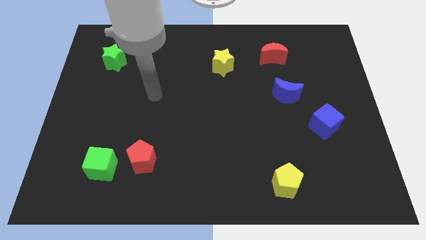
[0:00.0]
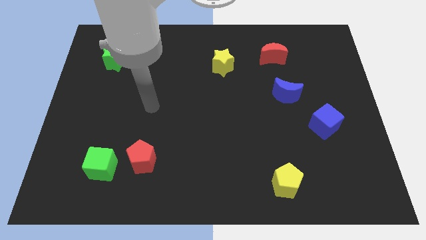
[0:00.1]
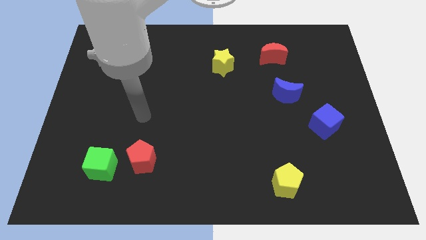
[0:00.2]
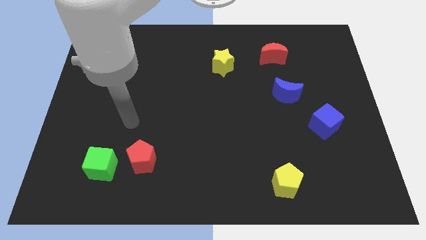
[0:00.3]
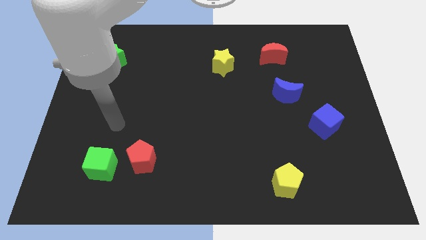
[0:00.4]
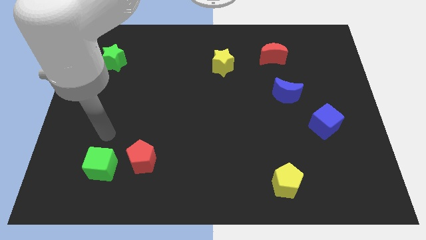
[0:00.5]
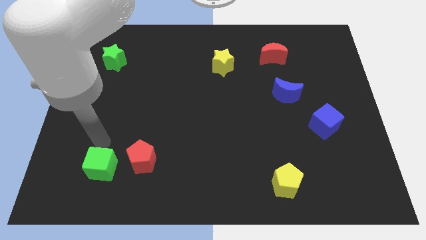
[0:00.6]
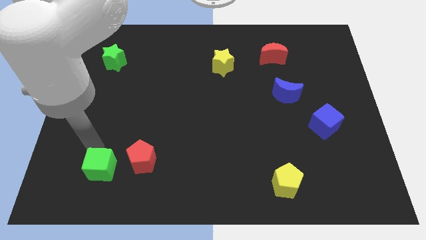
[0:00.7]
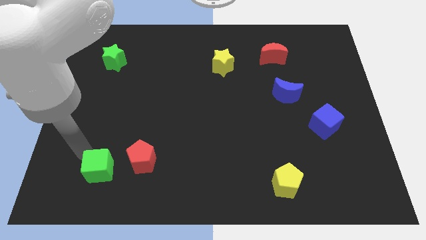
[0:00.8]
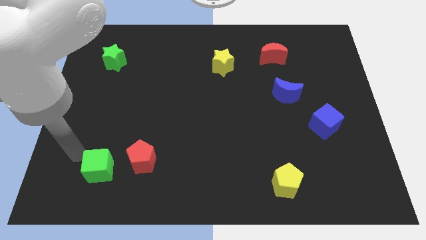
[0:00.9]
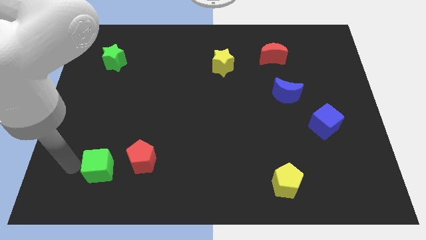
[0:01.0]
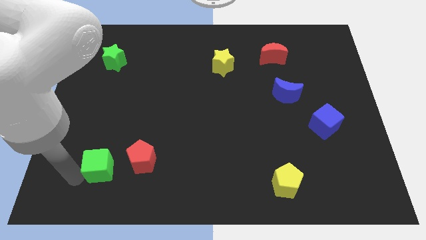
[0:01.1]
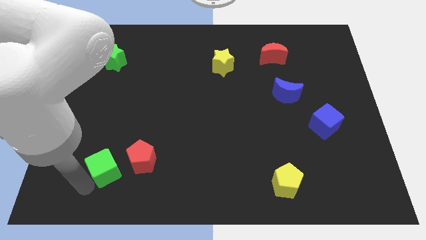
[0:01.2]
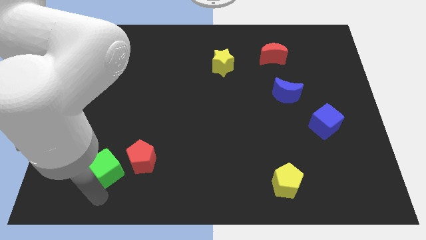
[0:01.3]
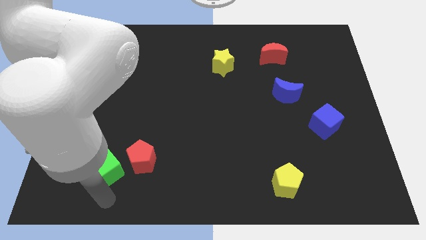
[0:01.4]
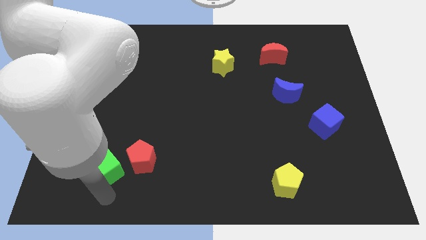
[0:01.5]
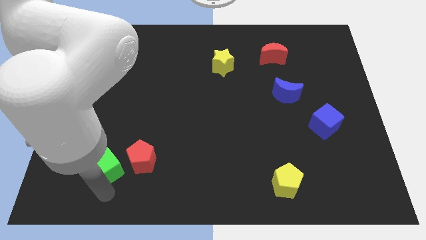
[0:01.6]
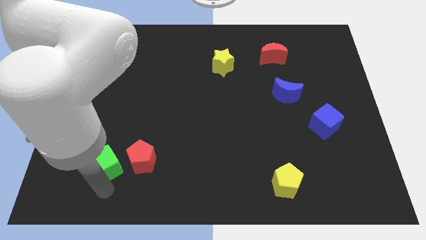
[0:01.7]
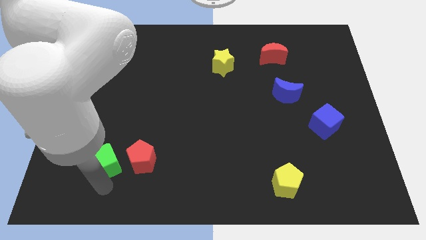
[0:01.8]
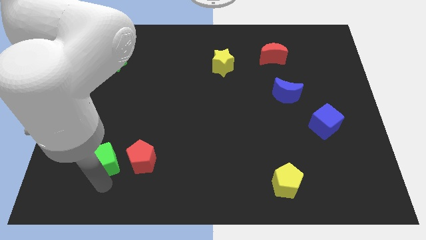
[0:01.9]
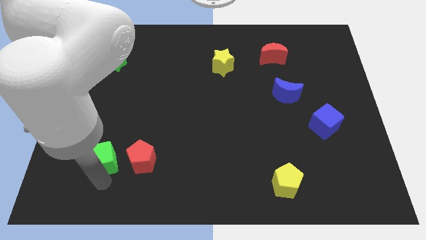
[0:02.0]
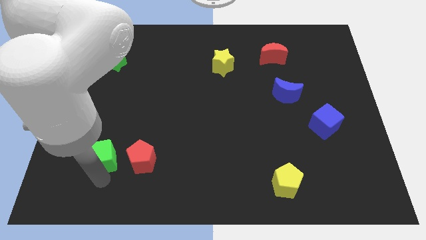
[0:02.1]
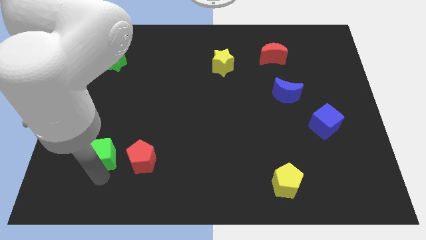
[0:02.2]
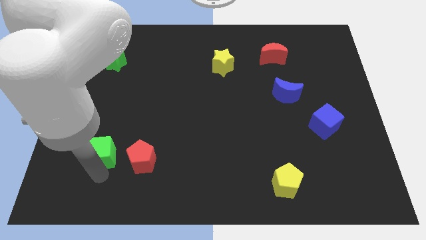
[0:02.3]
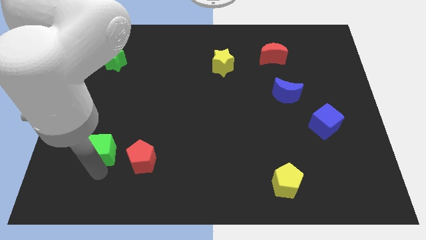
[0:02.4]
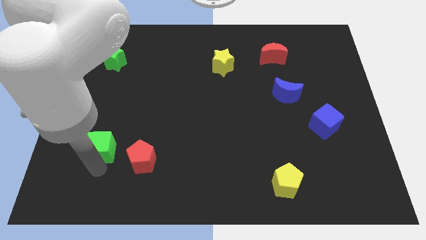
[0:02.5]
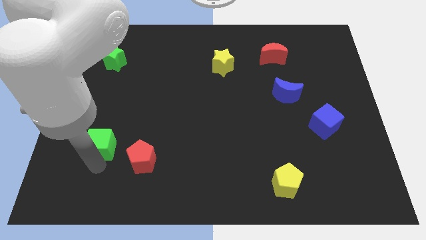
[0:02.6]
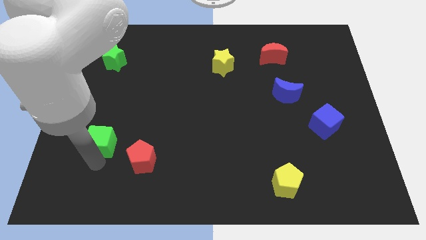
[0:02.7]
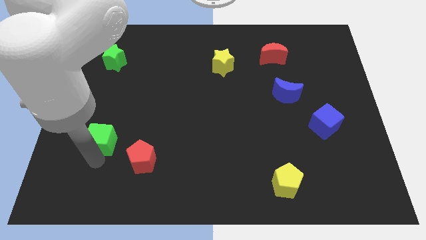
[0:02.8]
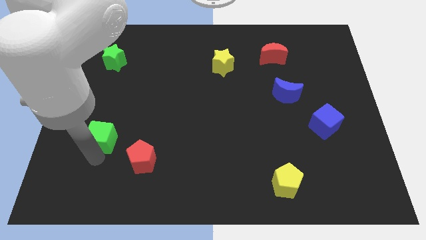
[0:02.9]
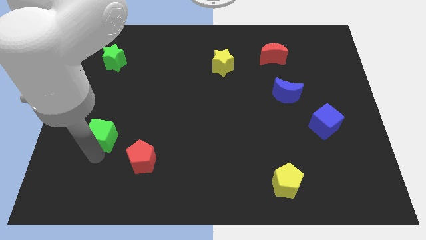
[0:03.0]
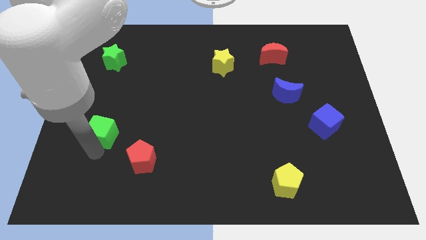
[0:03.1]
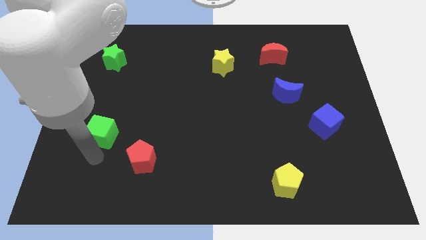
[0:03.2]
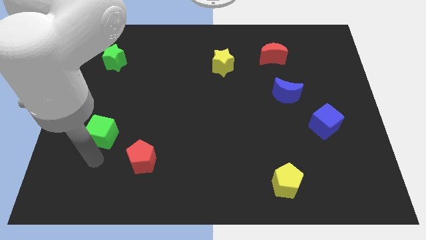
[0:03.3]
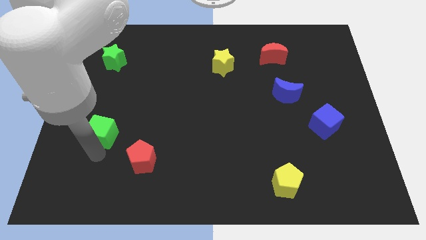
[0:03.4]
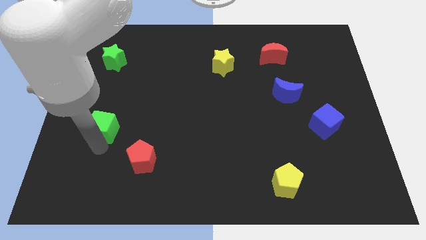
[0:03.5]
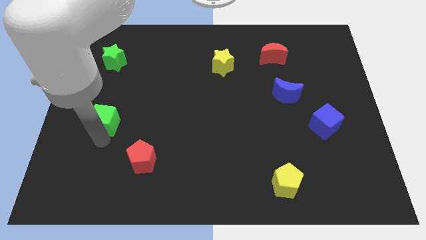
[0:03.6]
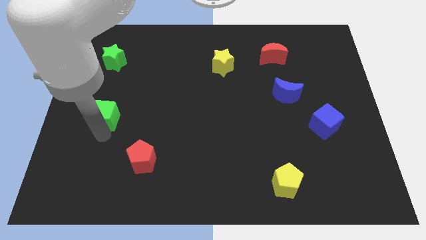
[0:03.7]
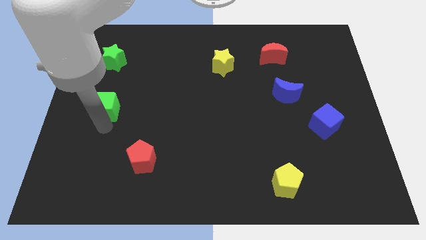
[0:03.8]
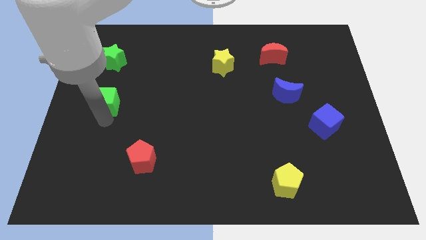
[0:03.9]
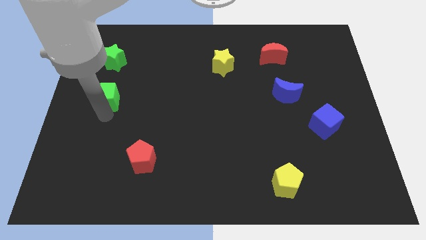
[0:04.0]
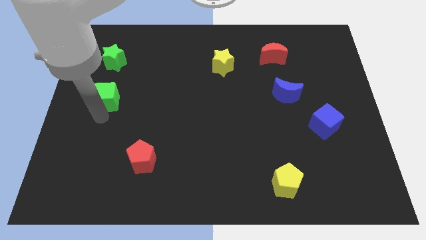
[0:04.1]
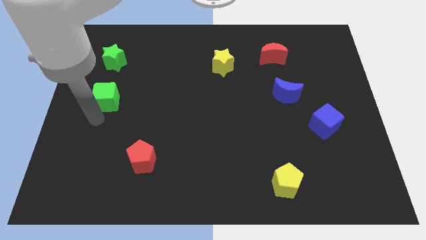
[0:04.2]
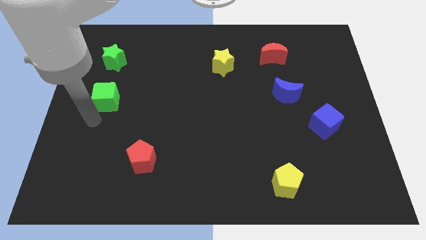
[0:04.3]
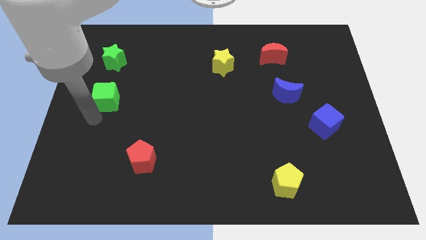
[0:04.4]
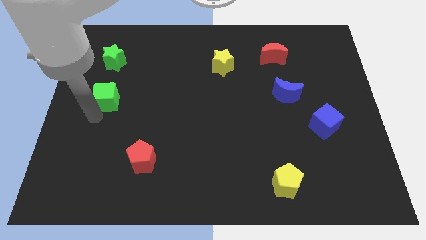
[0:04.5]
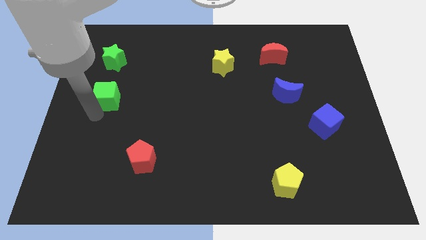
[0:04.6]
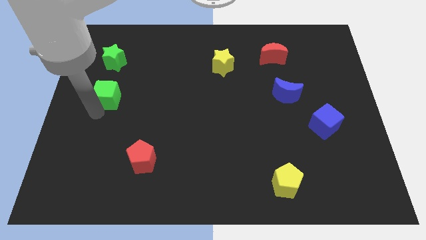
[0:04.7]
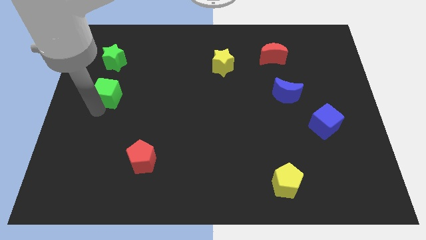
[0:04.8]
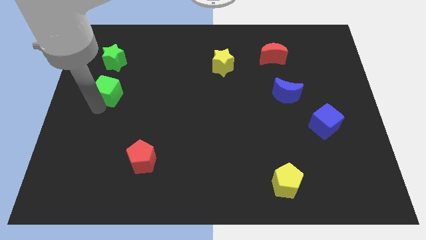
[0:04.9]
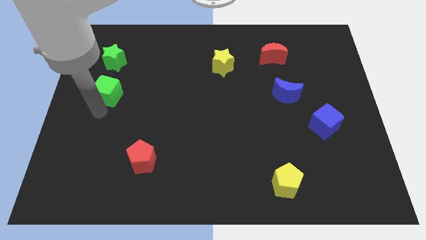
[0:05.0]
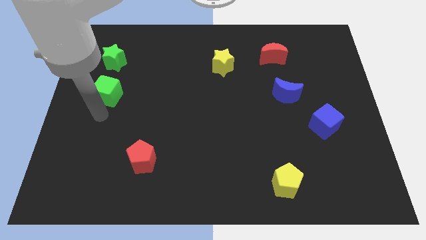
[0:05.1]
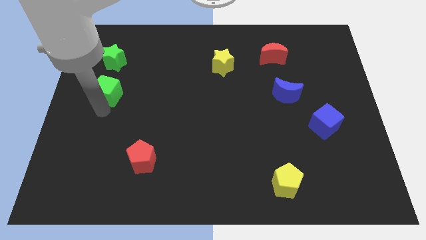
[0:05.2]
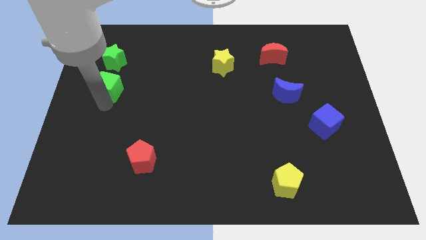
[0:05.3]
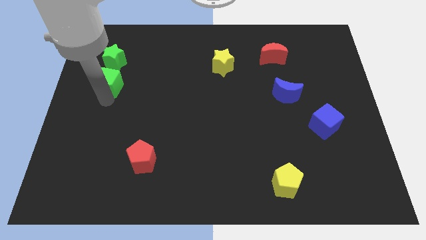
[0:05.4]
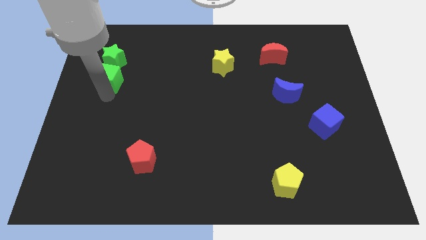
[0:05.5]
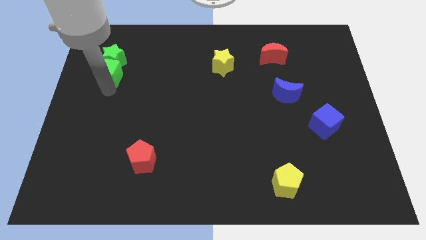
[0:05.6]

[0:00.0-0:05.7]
put the green cube to the green star

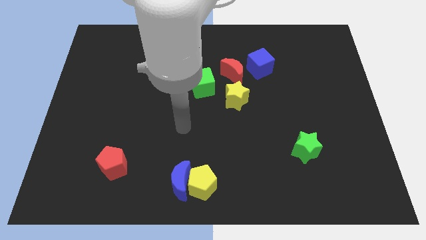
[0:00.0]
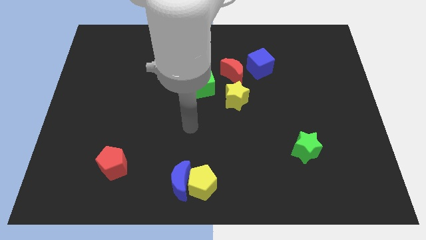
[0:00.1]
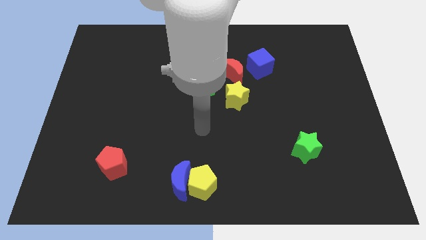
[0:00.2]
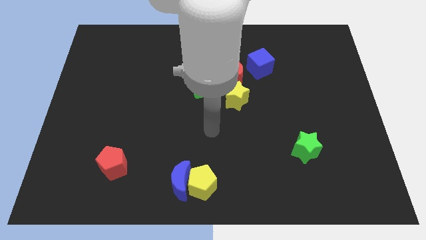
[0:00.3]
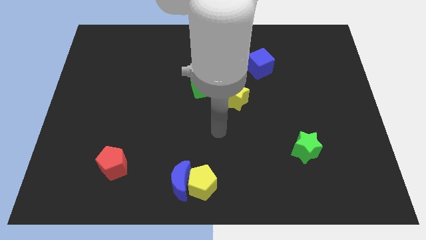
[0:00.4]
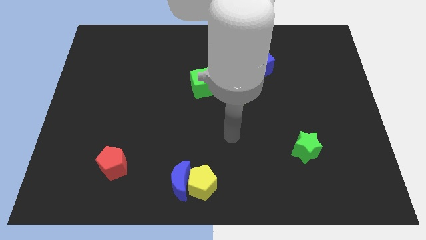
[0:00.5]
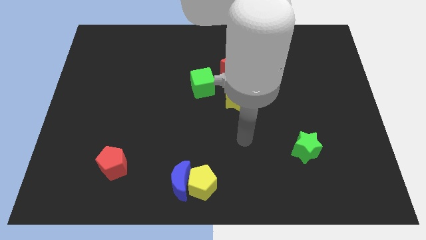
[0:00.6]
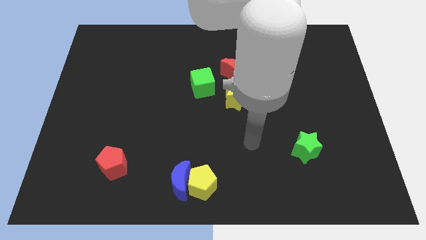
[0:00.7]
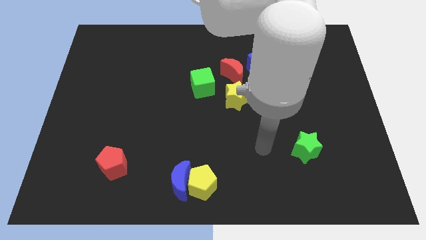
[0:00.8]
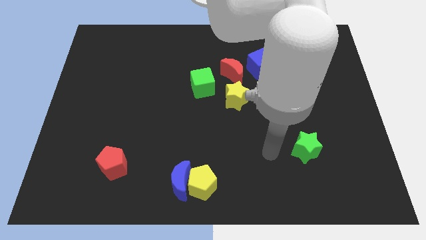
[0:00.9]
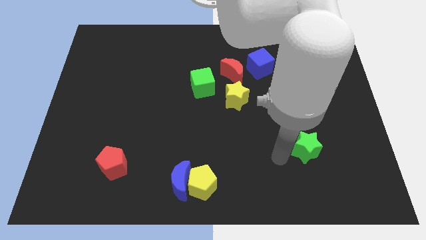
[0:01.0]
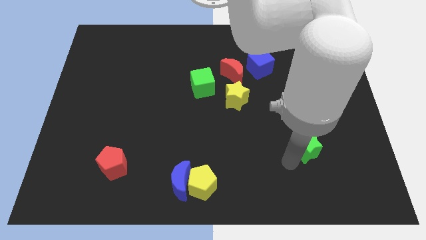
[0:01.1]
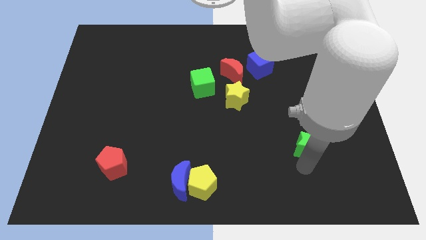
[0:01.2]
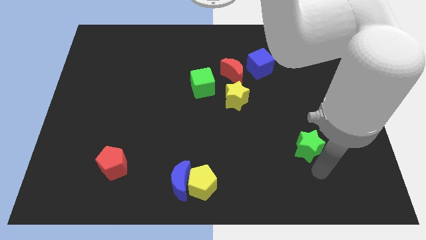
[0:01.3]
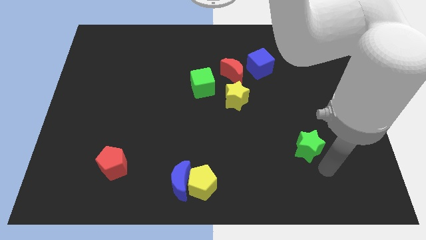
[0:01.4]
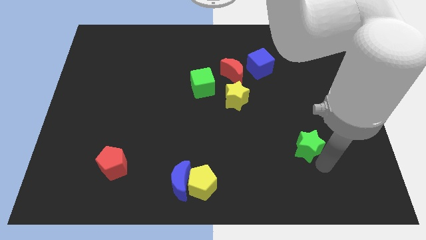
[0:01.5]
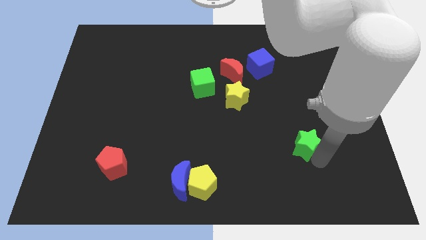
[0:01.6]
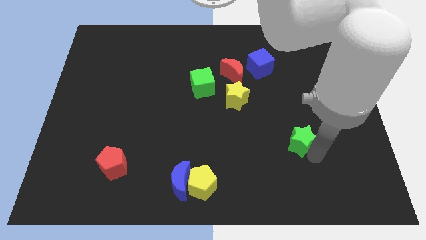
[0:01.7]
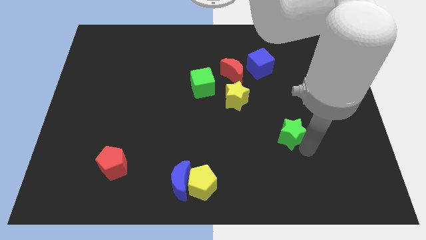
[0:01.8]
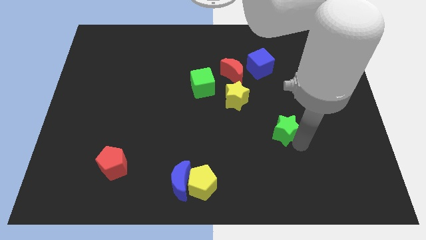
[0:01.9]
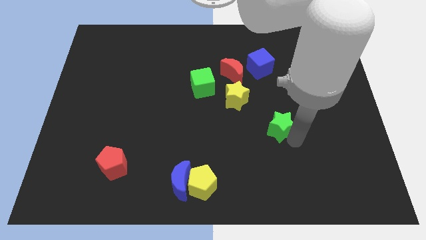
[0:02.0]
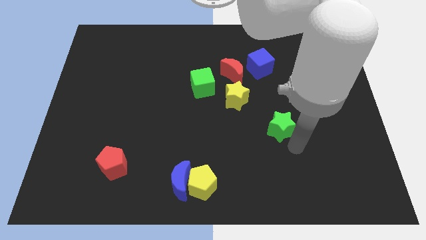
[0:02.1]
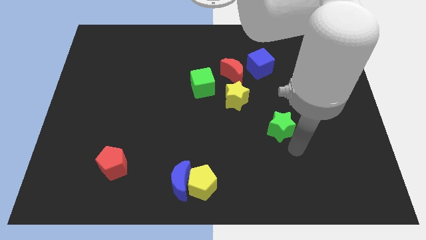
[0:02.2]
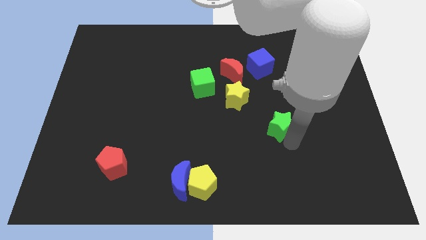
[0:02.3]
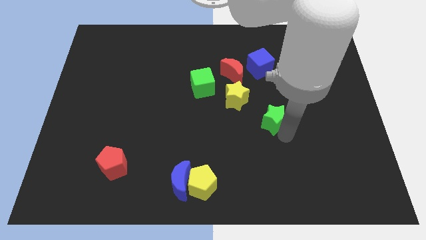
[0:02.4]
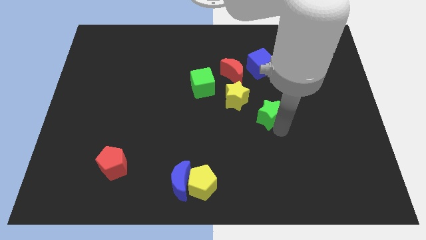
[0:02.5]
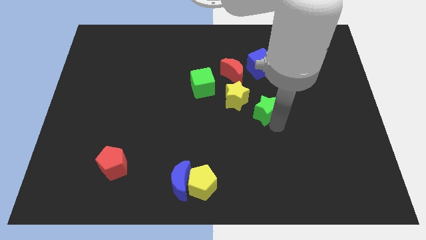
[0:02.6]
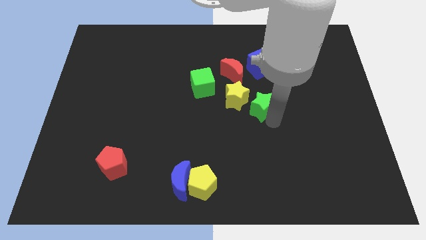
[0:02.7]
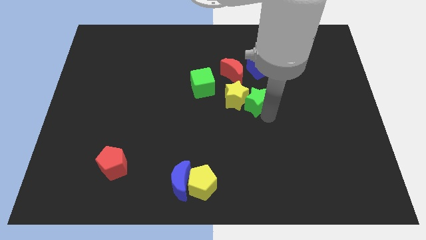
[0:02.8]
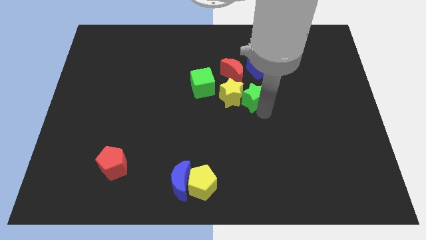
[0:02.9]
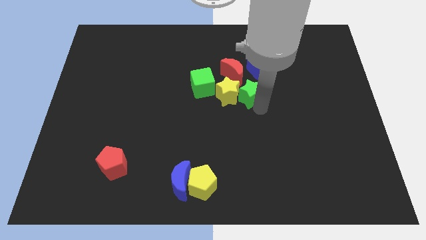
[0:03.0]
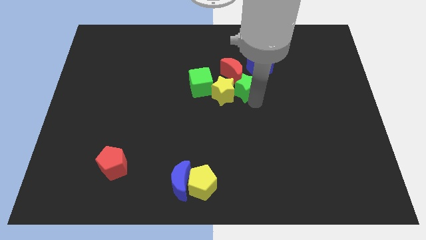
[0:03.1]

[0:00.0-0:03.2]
move the green star close to the red moon
